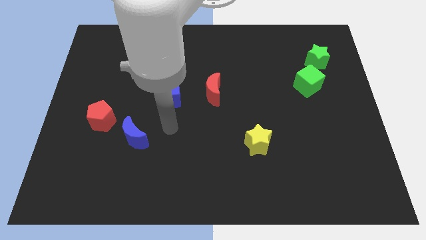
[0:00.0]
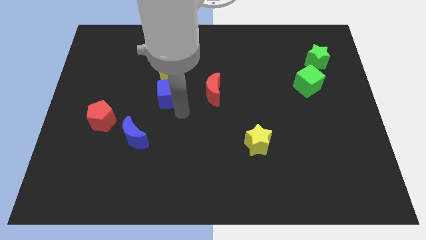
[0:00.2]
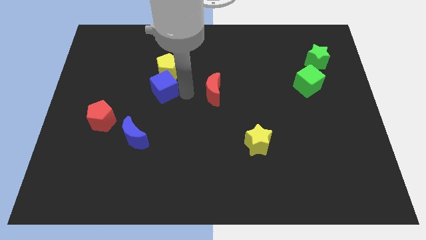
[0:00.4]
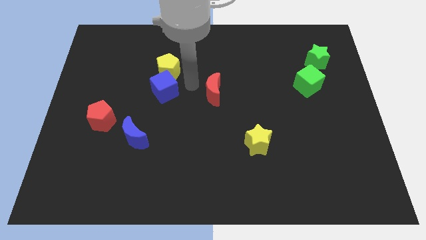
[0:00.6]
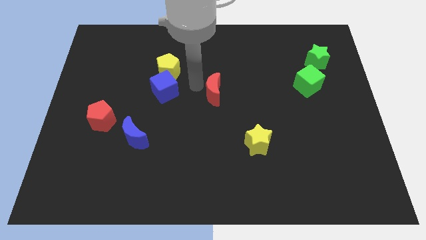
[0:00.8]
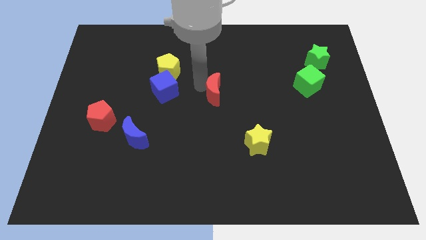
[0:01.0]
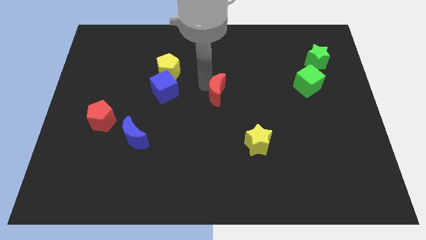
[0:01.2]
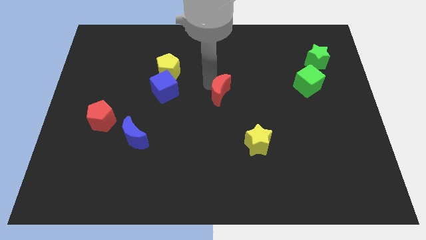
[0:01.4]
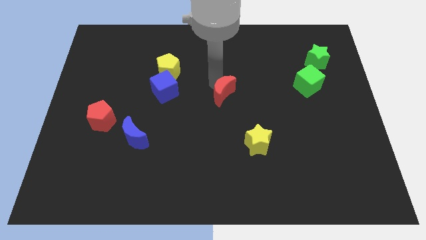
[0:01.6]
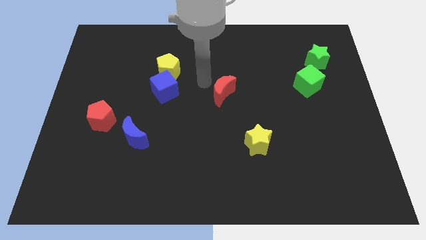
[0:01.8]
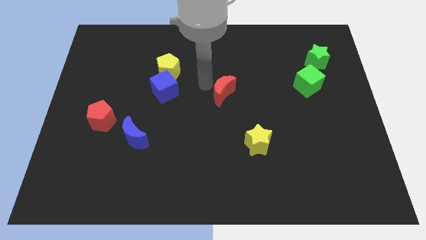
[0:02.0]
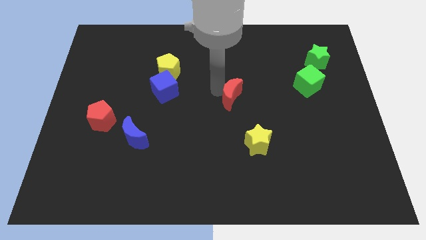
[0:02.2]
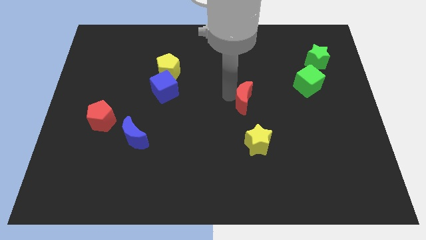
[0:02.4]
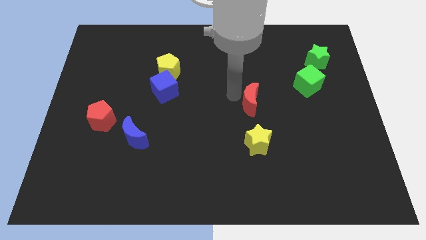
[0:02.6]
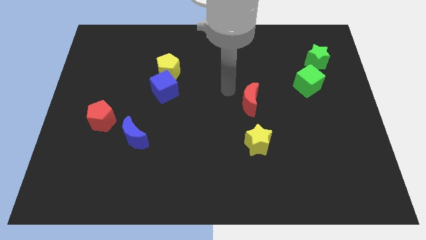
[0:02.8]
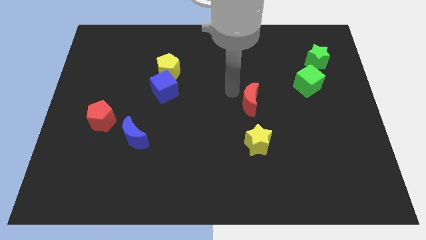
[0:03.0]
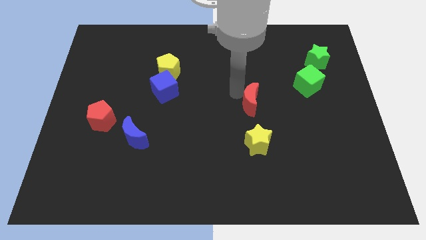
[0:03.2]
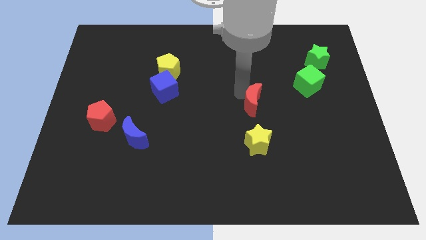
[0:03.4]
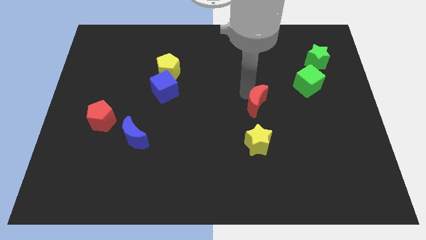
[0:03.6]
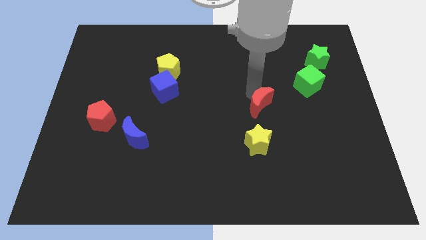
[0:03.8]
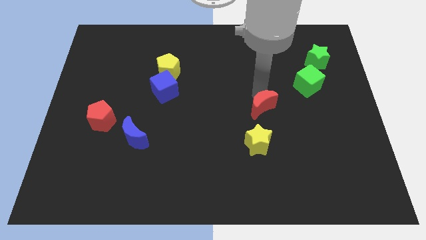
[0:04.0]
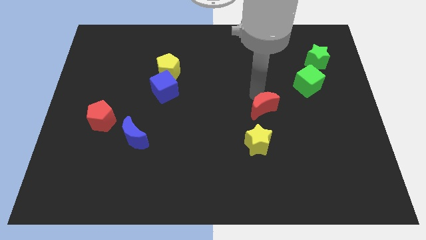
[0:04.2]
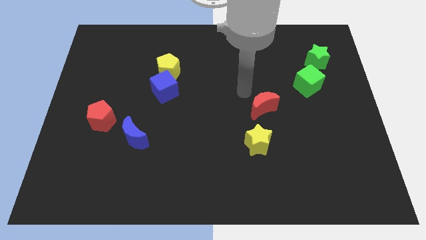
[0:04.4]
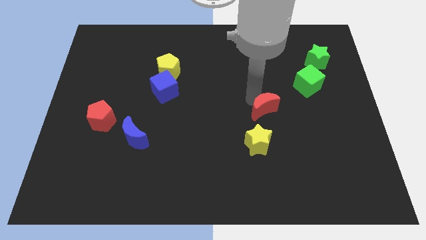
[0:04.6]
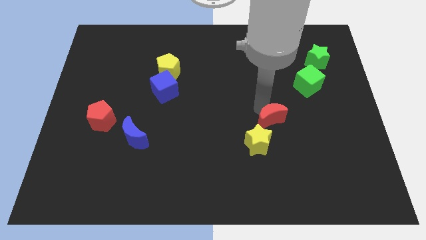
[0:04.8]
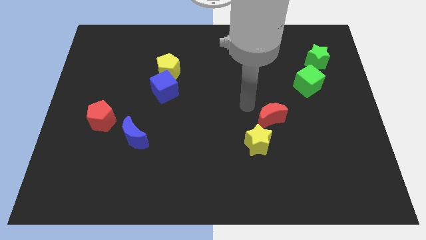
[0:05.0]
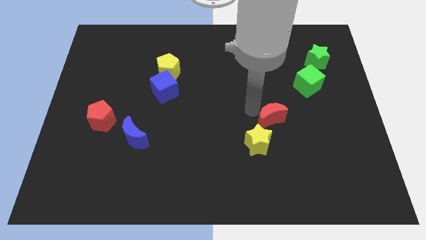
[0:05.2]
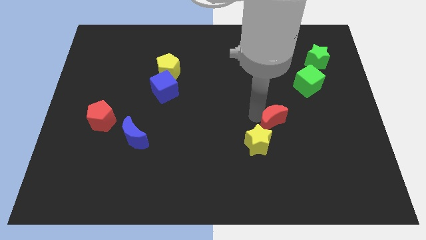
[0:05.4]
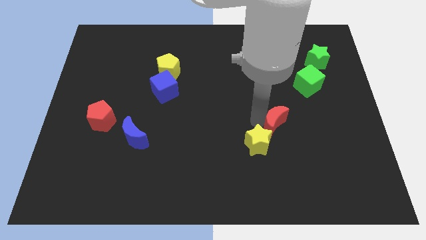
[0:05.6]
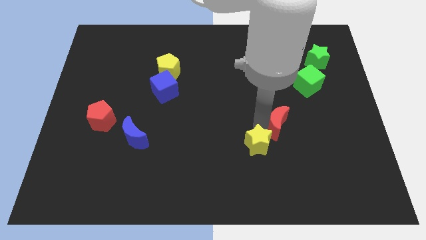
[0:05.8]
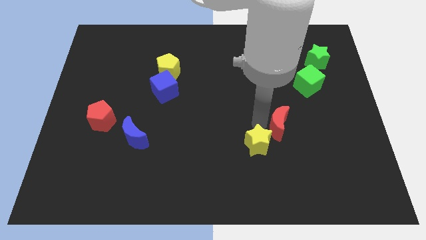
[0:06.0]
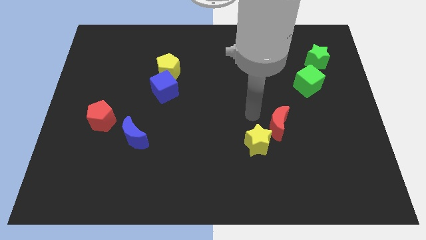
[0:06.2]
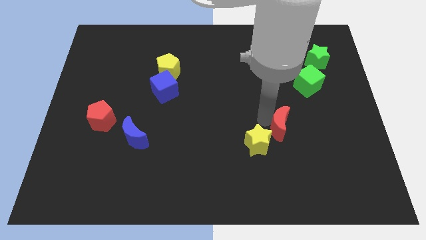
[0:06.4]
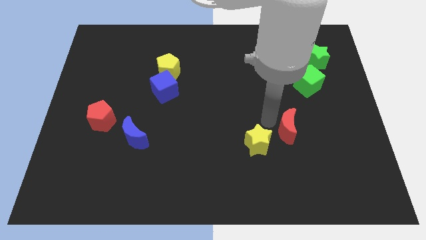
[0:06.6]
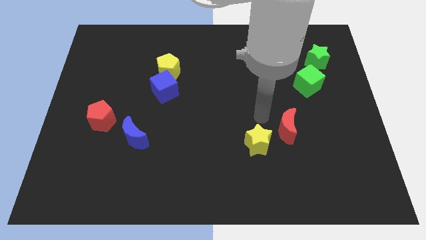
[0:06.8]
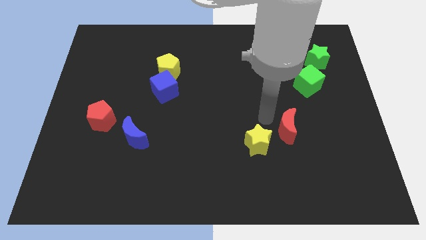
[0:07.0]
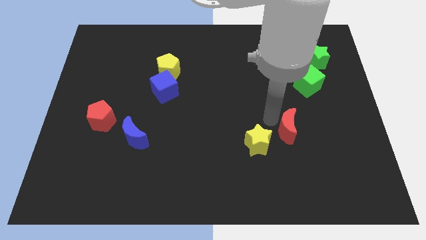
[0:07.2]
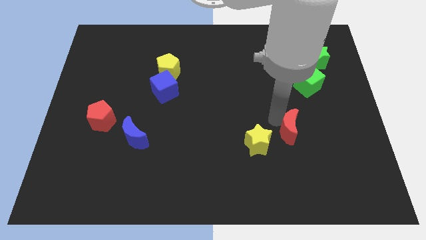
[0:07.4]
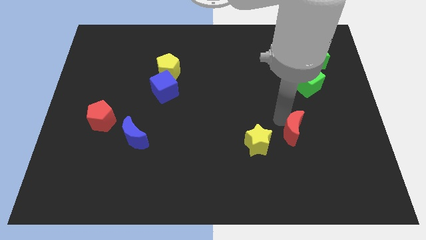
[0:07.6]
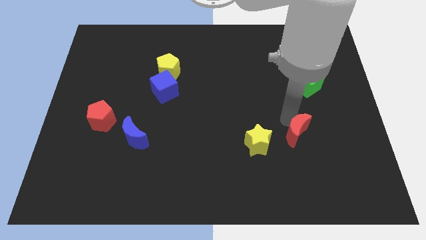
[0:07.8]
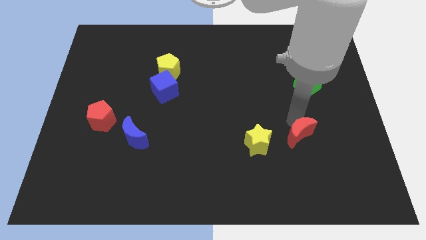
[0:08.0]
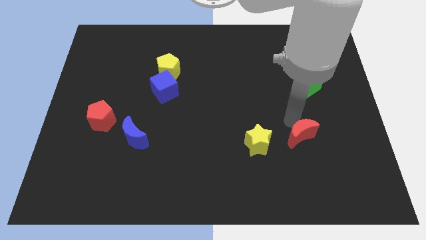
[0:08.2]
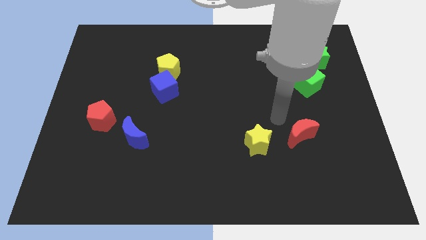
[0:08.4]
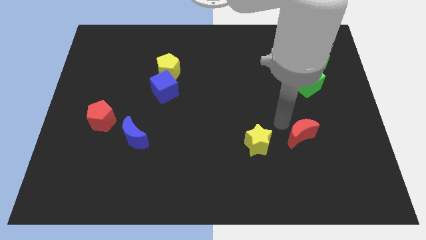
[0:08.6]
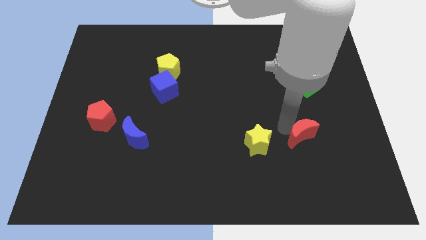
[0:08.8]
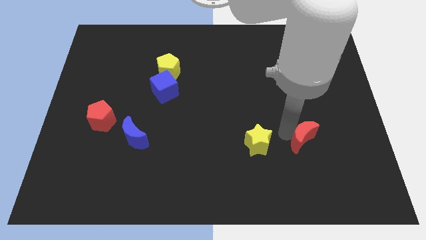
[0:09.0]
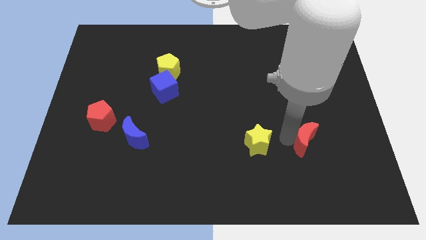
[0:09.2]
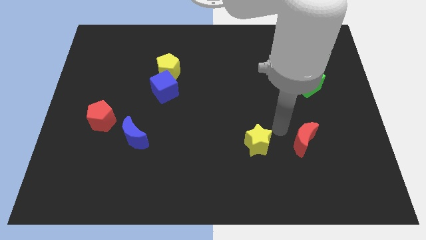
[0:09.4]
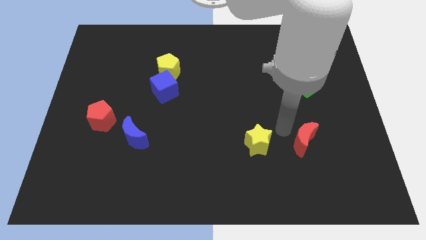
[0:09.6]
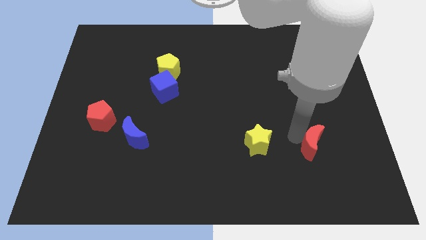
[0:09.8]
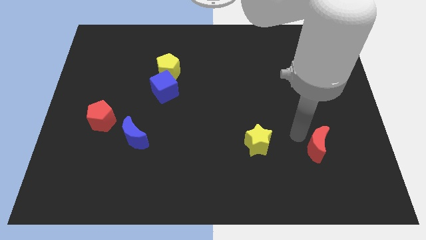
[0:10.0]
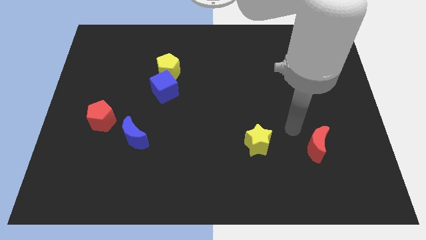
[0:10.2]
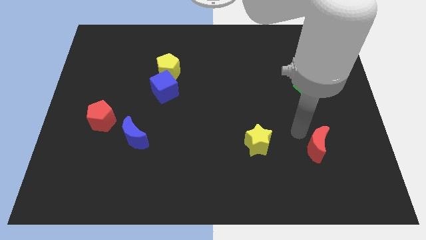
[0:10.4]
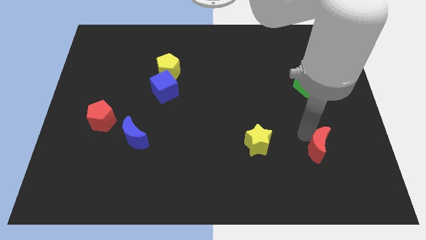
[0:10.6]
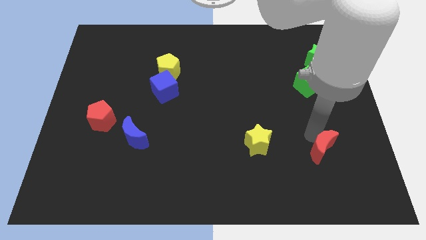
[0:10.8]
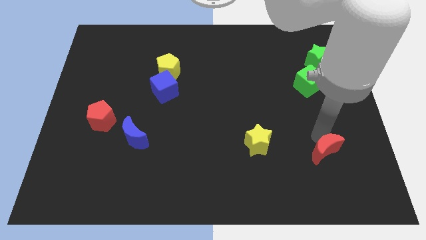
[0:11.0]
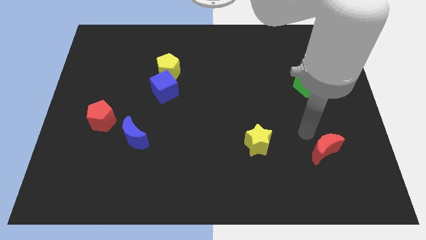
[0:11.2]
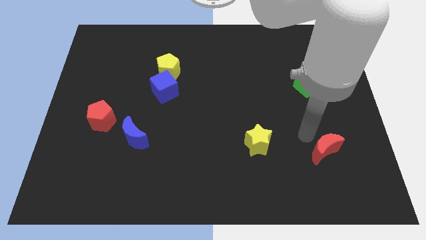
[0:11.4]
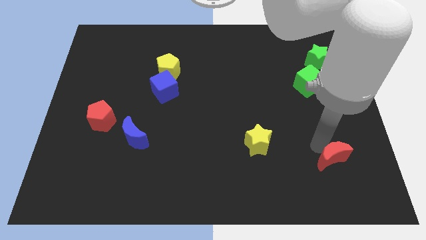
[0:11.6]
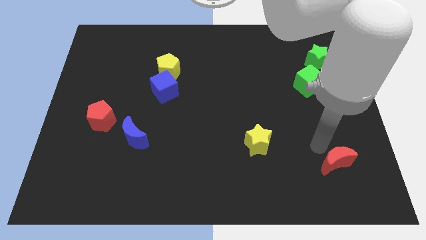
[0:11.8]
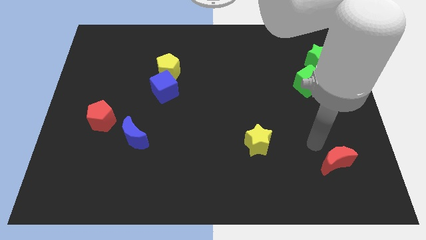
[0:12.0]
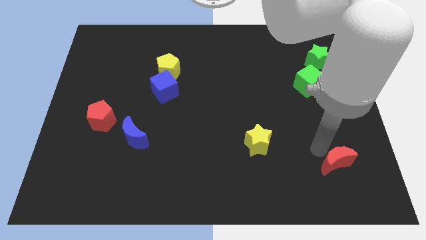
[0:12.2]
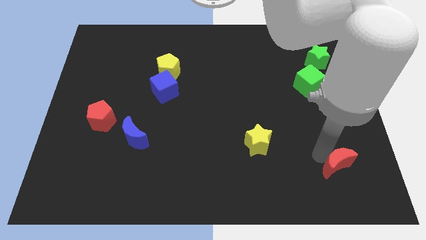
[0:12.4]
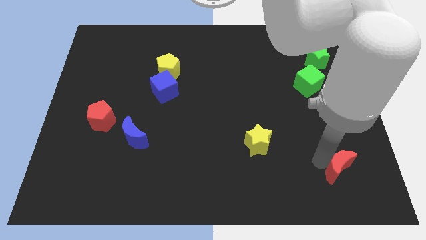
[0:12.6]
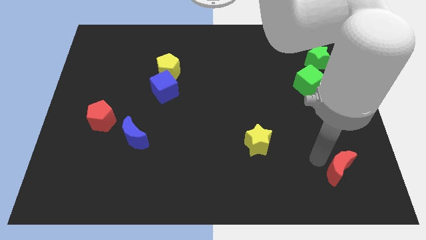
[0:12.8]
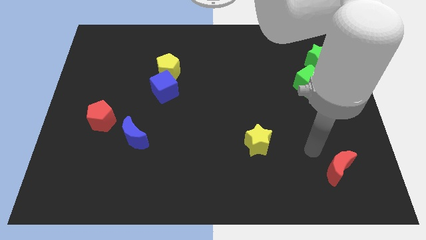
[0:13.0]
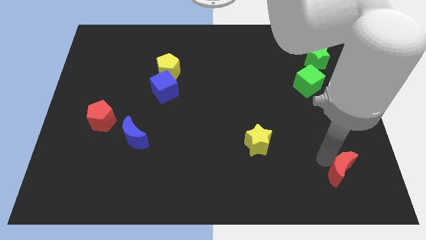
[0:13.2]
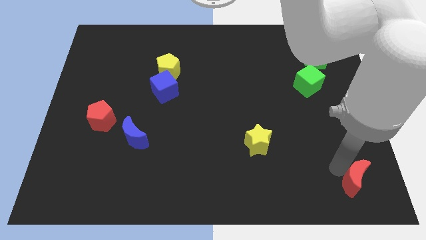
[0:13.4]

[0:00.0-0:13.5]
put the red moon to the bottom right corner

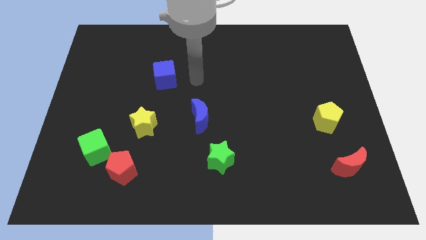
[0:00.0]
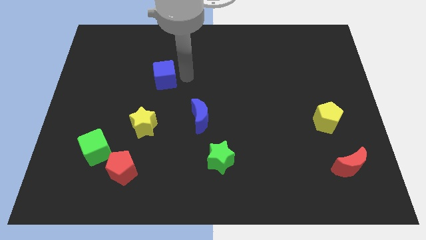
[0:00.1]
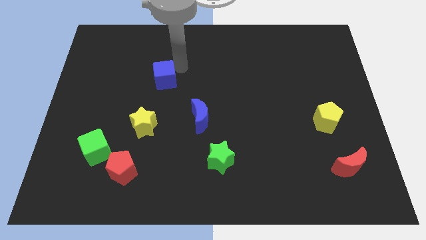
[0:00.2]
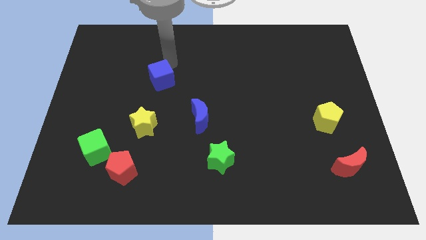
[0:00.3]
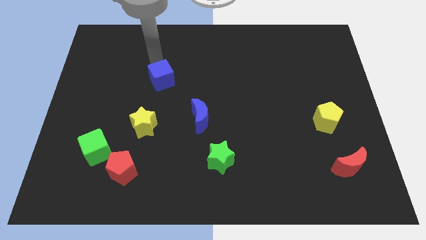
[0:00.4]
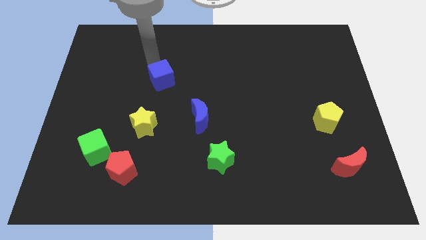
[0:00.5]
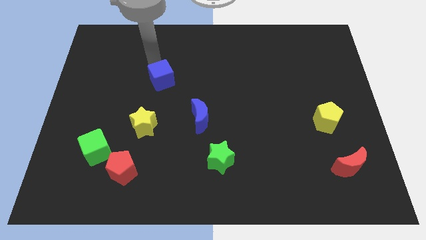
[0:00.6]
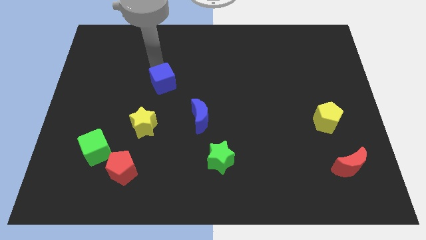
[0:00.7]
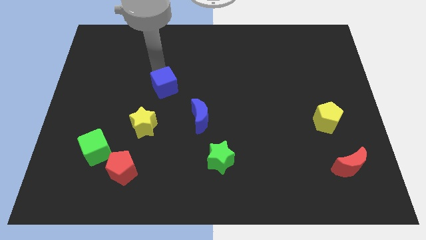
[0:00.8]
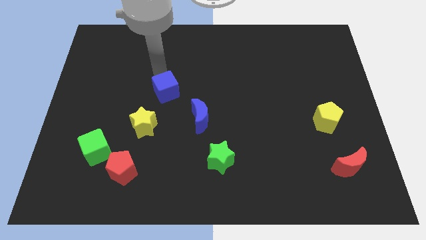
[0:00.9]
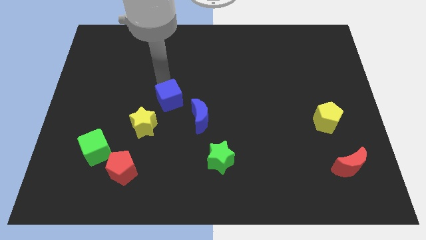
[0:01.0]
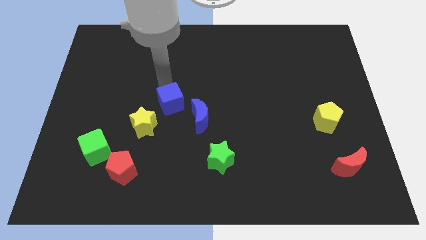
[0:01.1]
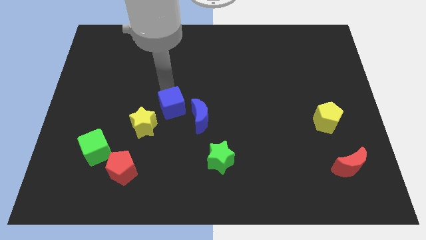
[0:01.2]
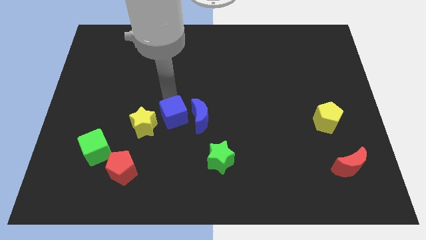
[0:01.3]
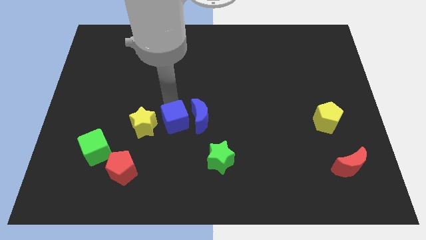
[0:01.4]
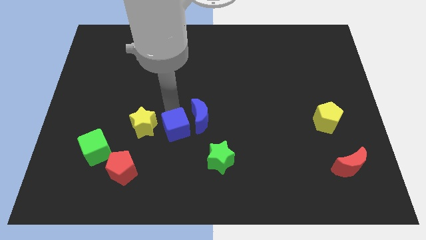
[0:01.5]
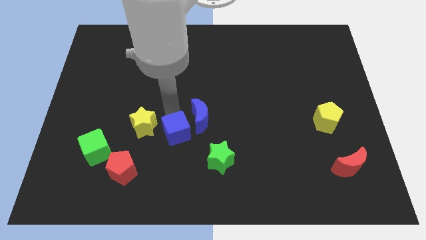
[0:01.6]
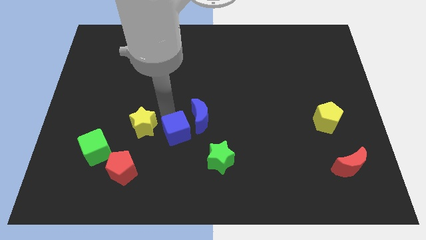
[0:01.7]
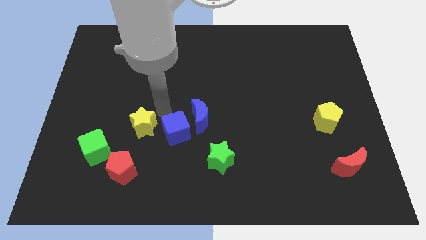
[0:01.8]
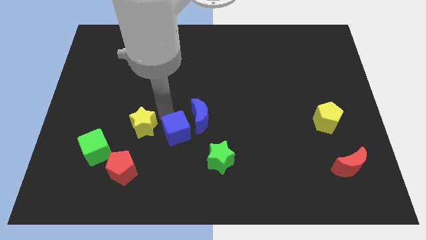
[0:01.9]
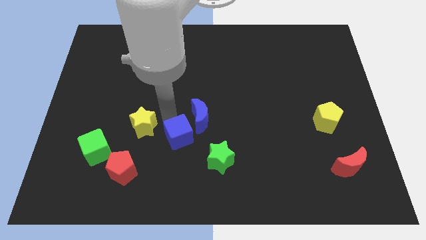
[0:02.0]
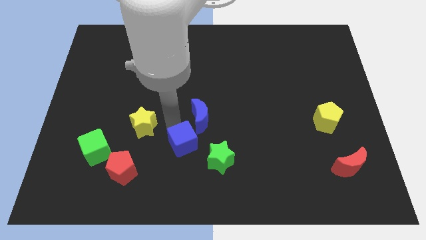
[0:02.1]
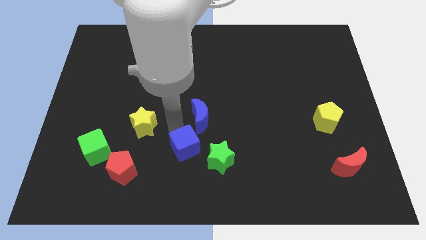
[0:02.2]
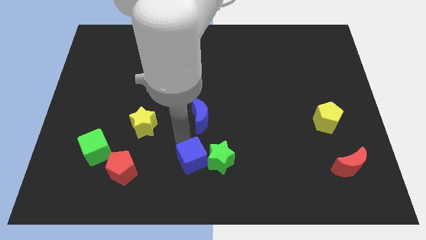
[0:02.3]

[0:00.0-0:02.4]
move the blue cube to the bottom
